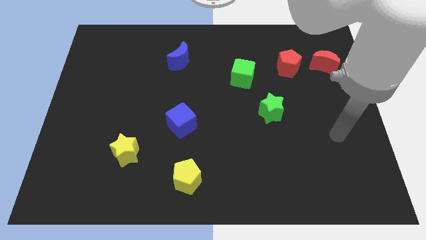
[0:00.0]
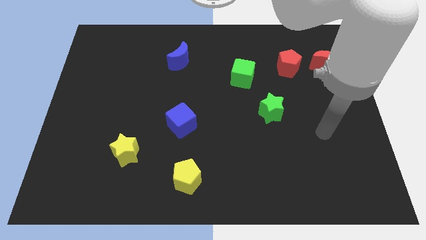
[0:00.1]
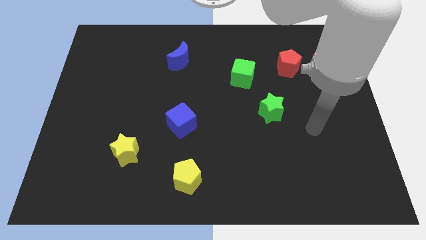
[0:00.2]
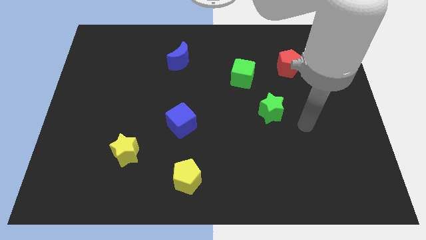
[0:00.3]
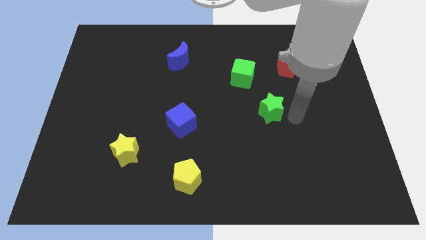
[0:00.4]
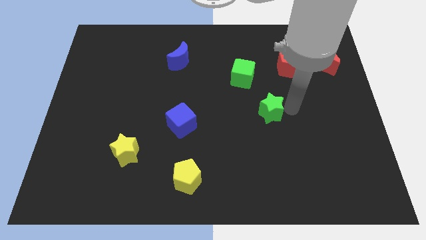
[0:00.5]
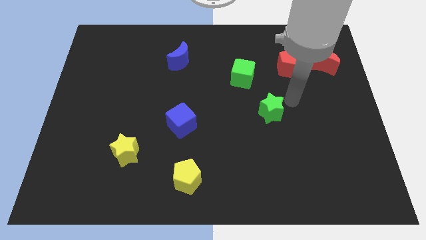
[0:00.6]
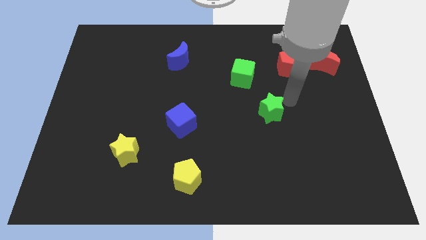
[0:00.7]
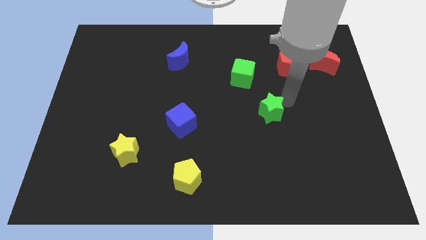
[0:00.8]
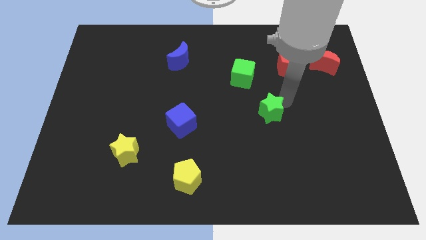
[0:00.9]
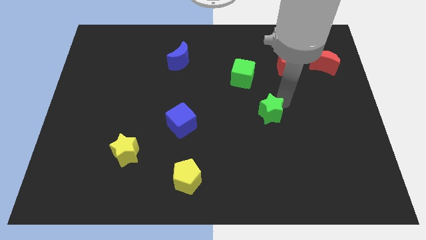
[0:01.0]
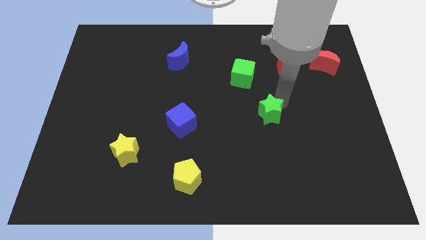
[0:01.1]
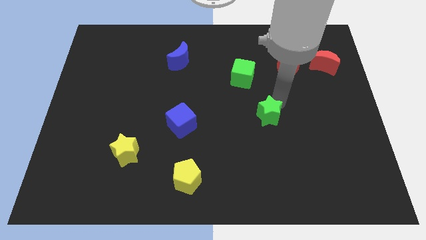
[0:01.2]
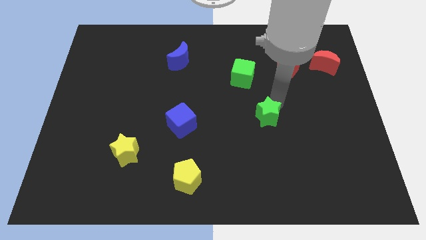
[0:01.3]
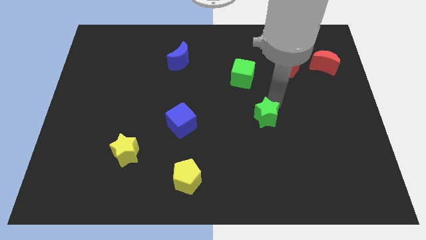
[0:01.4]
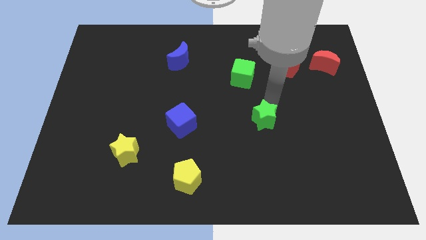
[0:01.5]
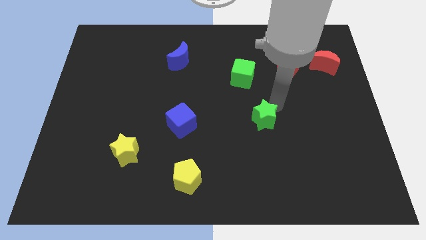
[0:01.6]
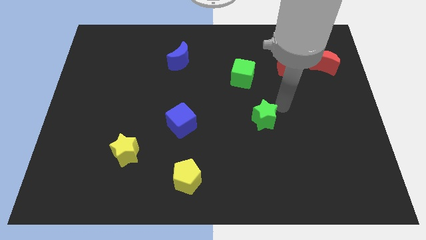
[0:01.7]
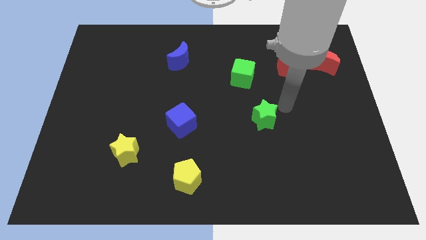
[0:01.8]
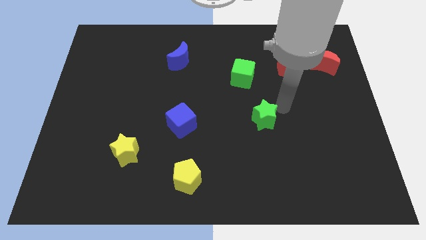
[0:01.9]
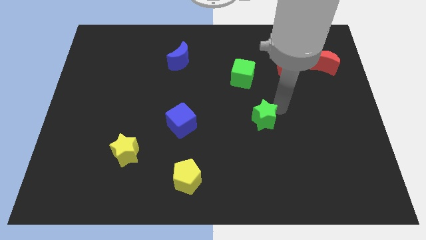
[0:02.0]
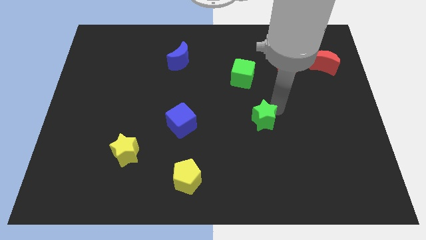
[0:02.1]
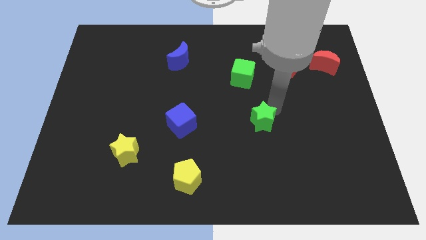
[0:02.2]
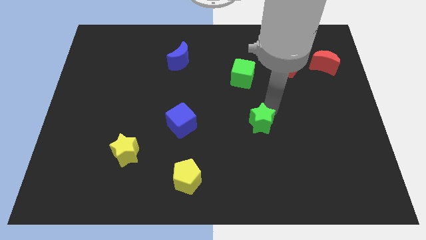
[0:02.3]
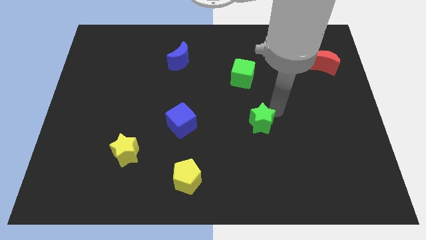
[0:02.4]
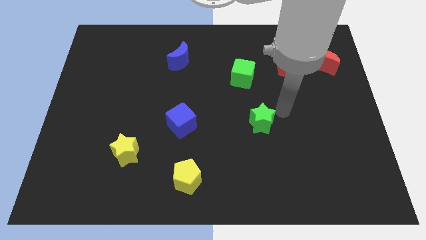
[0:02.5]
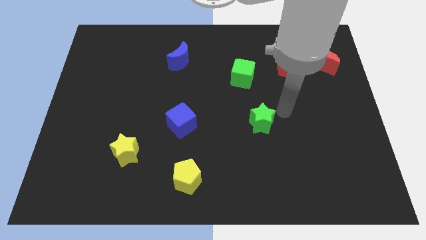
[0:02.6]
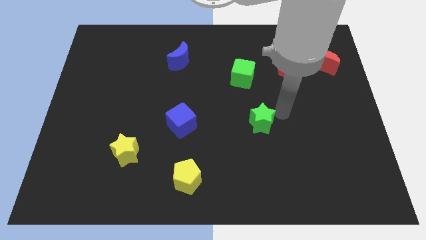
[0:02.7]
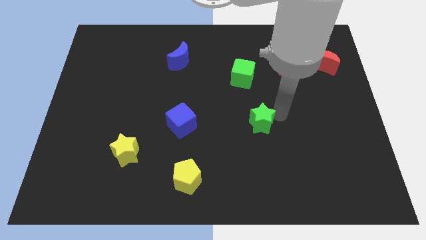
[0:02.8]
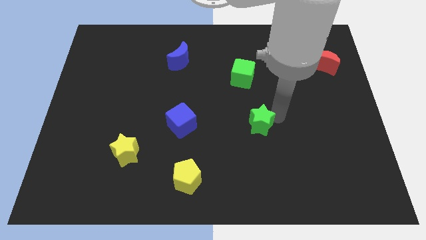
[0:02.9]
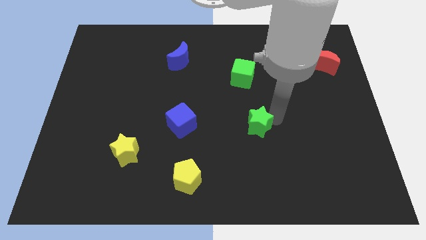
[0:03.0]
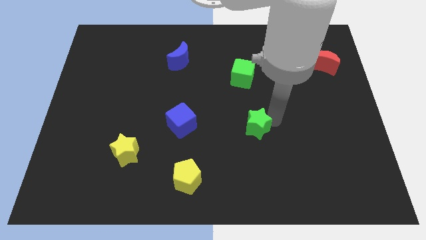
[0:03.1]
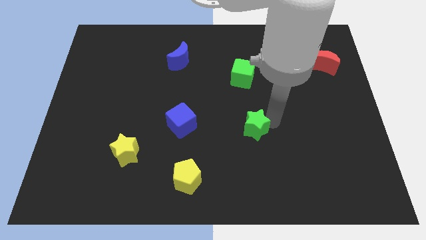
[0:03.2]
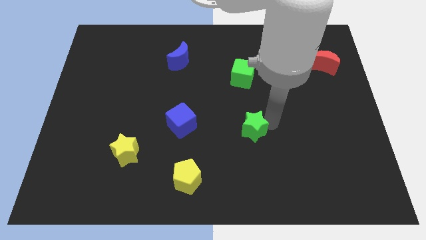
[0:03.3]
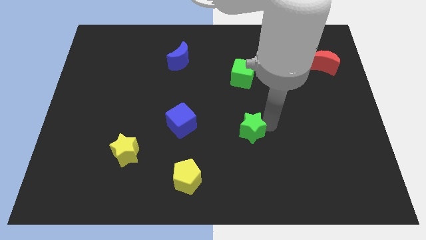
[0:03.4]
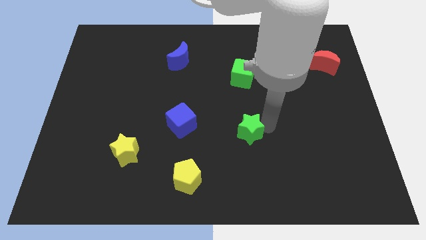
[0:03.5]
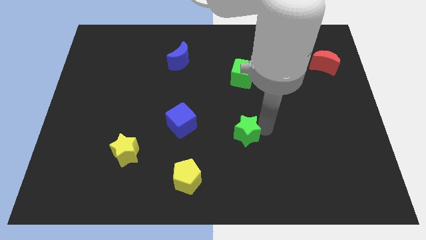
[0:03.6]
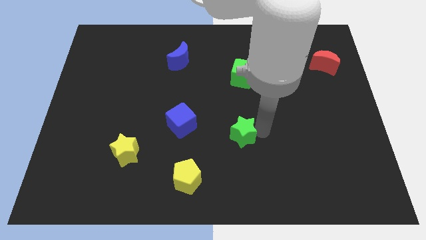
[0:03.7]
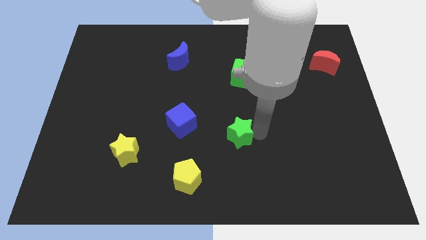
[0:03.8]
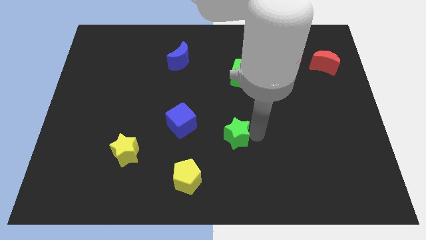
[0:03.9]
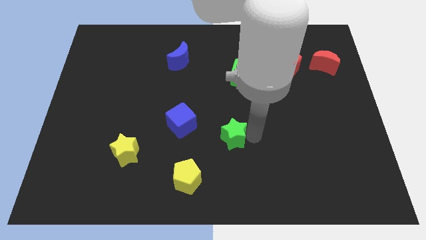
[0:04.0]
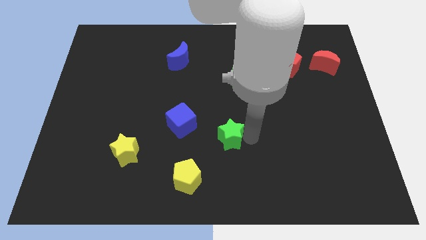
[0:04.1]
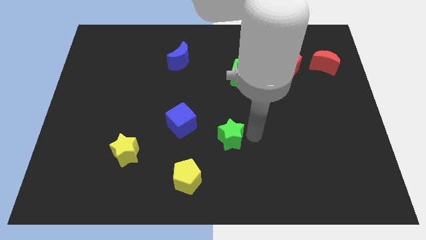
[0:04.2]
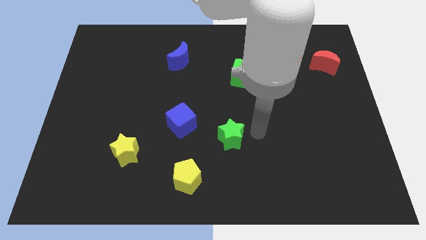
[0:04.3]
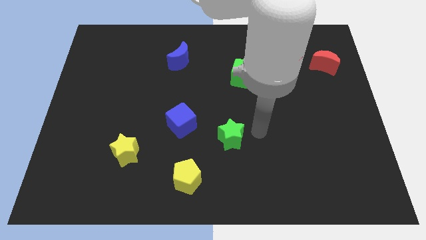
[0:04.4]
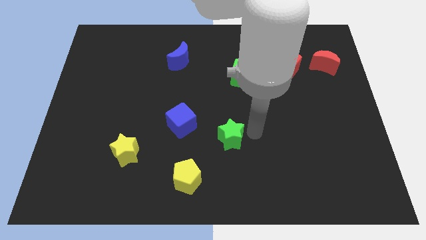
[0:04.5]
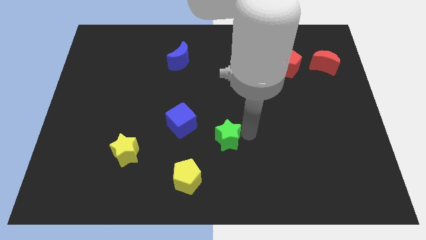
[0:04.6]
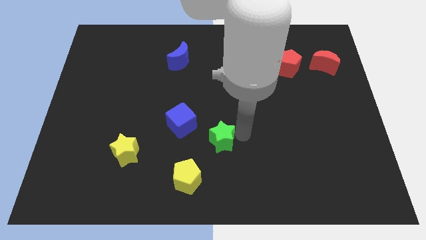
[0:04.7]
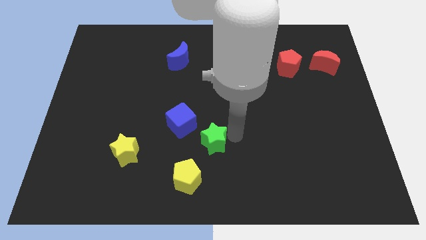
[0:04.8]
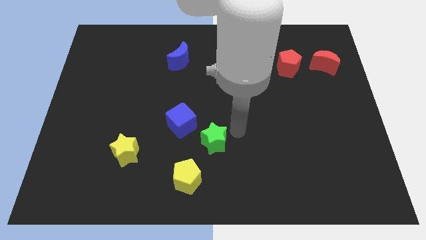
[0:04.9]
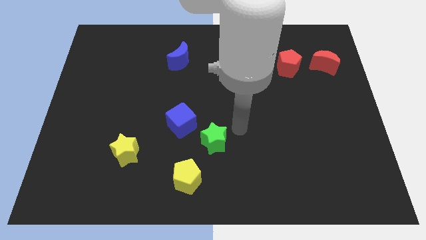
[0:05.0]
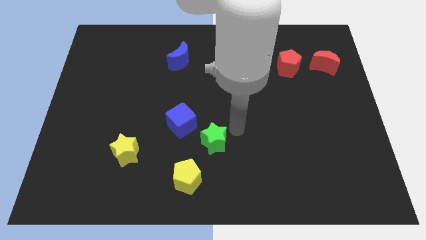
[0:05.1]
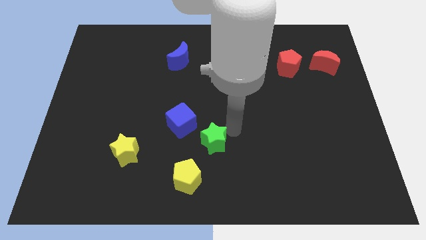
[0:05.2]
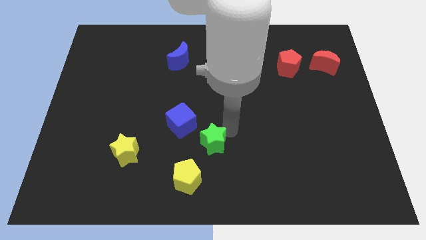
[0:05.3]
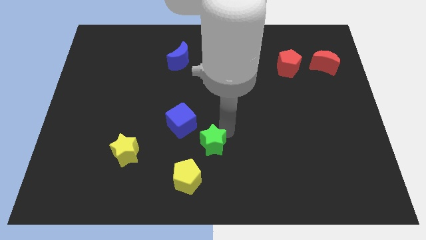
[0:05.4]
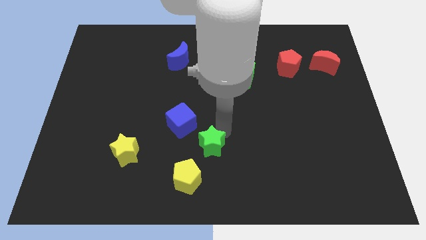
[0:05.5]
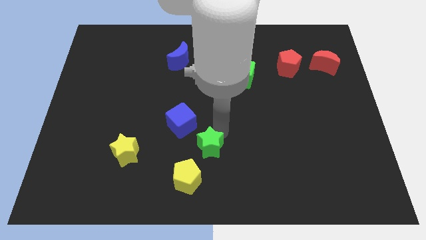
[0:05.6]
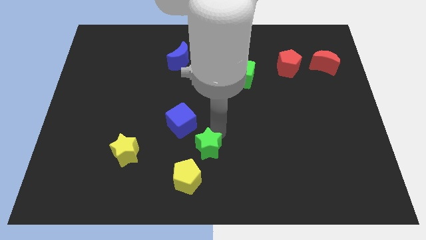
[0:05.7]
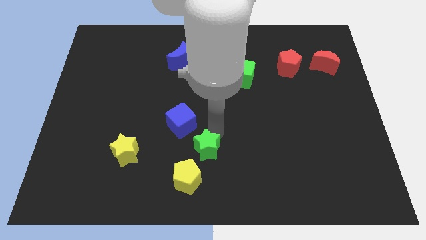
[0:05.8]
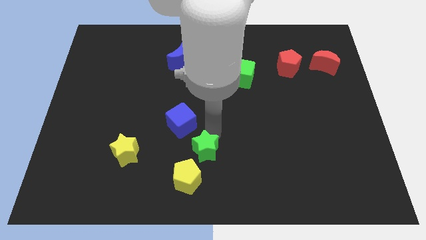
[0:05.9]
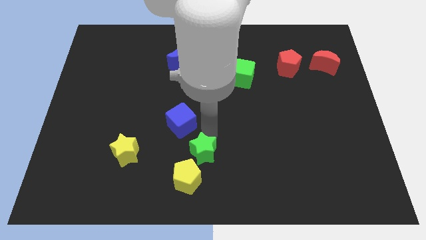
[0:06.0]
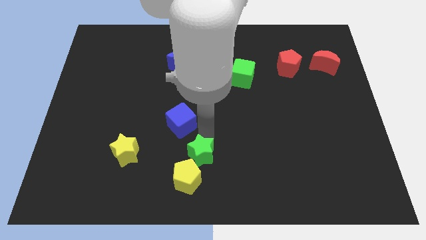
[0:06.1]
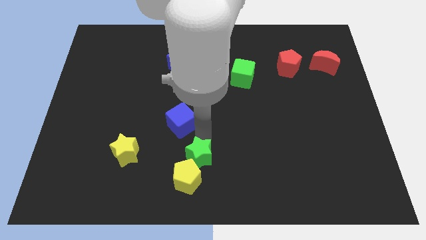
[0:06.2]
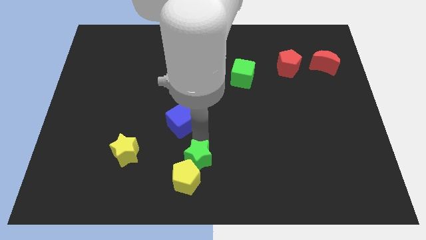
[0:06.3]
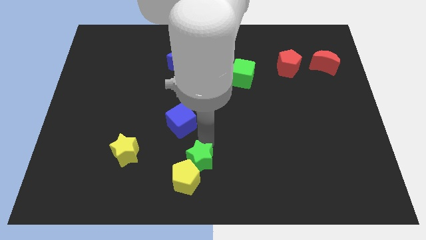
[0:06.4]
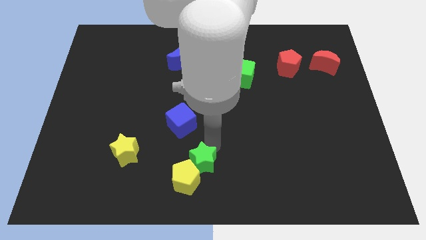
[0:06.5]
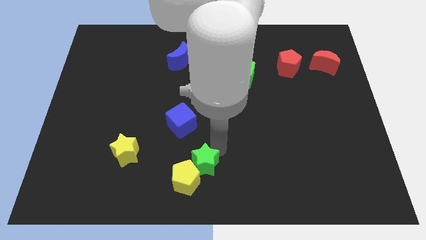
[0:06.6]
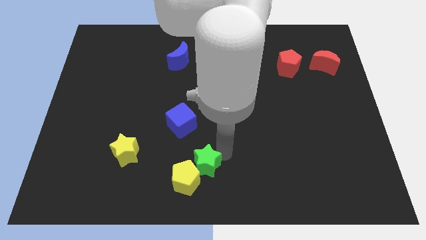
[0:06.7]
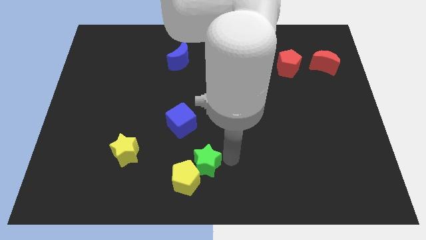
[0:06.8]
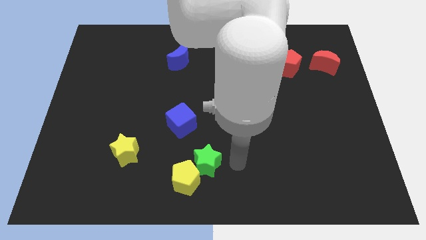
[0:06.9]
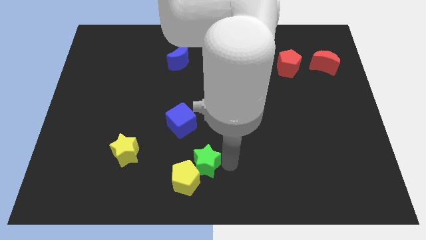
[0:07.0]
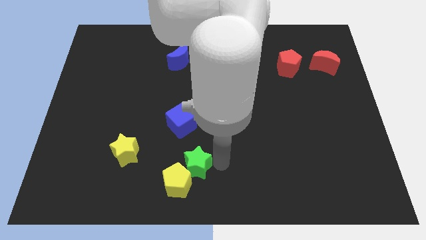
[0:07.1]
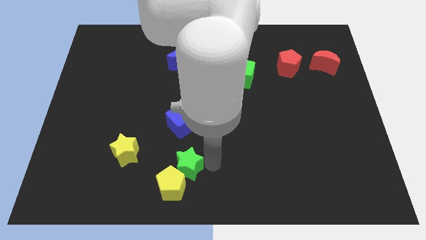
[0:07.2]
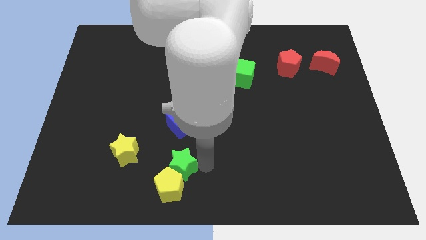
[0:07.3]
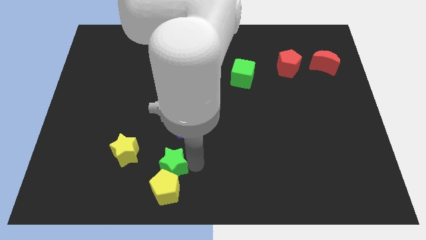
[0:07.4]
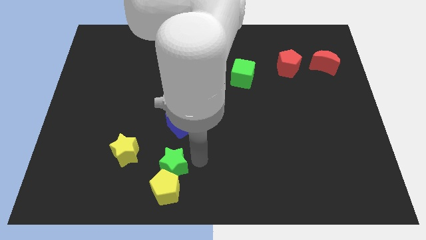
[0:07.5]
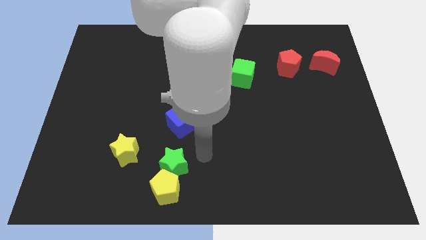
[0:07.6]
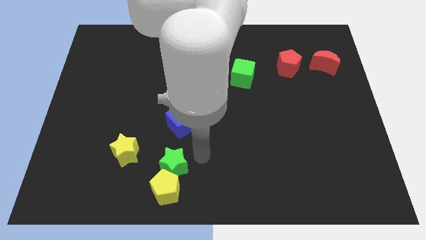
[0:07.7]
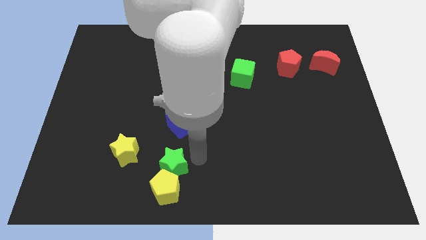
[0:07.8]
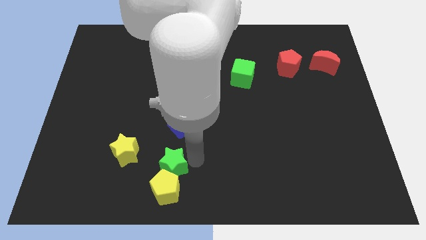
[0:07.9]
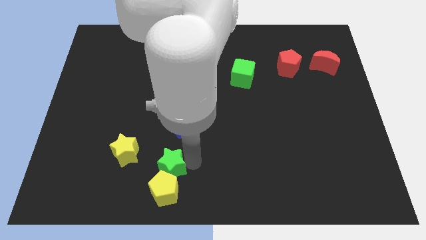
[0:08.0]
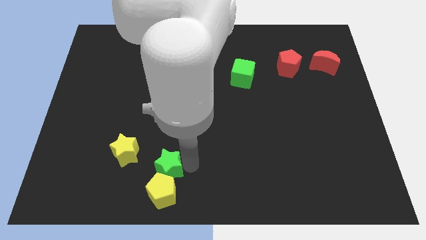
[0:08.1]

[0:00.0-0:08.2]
push the green star diagonally down and to the right of the yellow star
